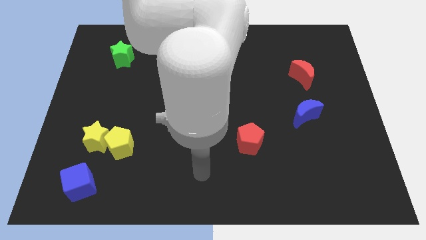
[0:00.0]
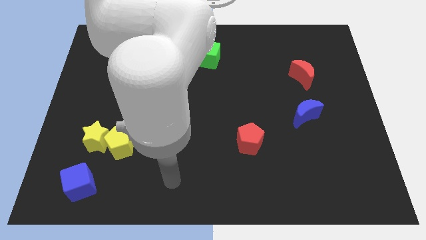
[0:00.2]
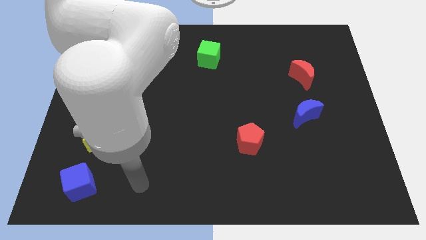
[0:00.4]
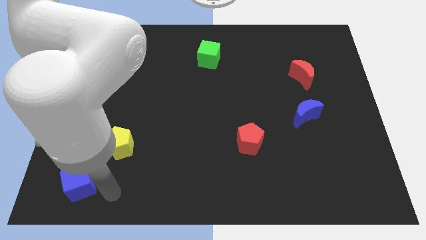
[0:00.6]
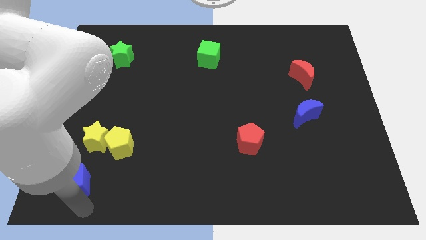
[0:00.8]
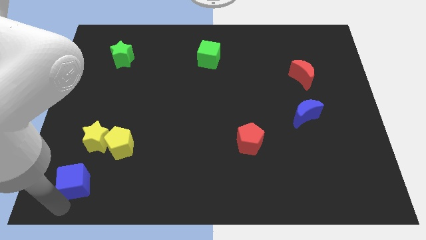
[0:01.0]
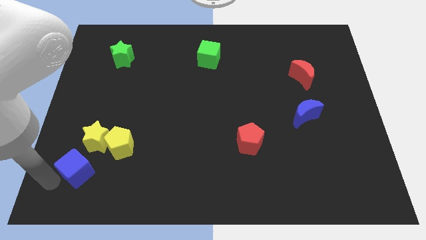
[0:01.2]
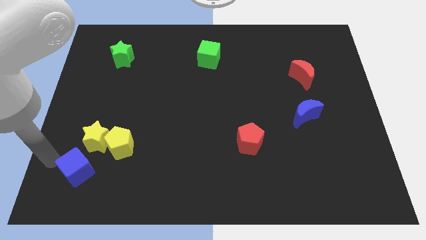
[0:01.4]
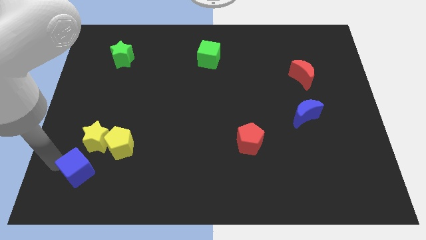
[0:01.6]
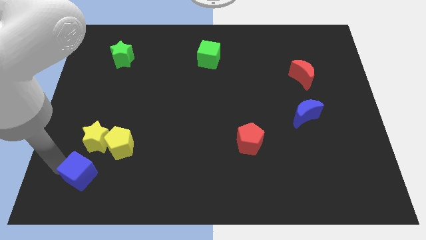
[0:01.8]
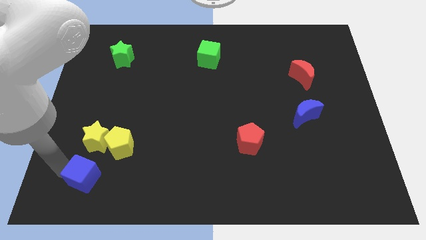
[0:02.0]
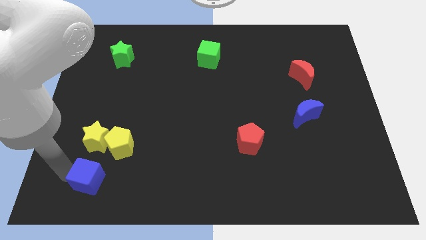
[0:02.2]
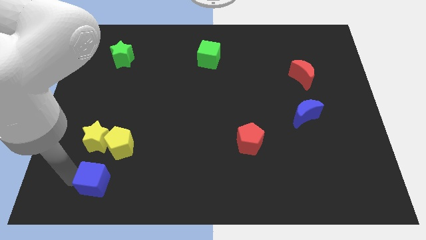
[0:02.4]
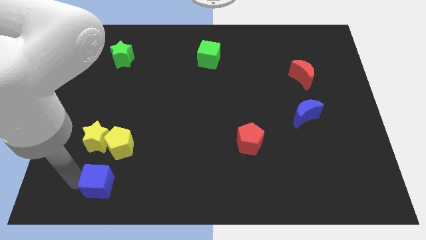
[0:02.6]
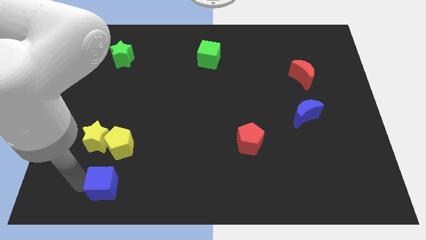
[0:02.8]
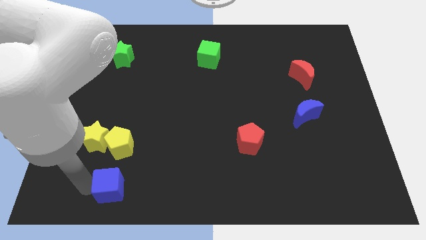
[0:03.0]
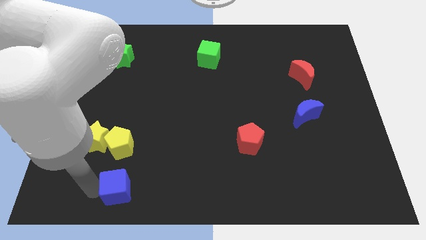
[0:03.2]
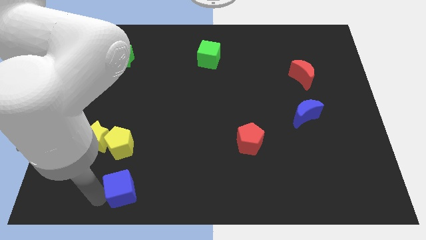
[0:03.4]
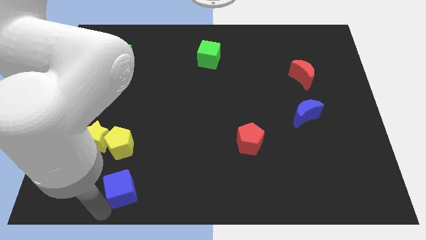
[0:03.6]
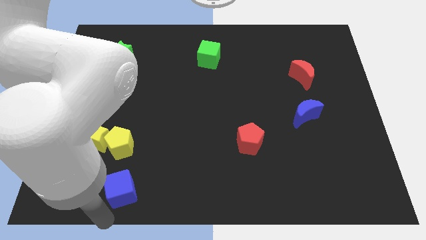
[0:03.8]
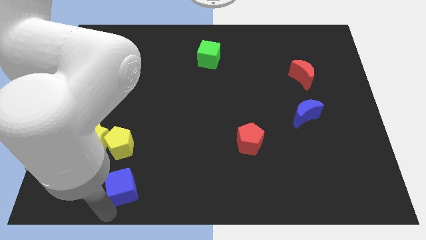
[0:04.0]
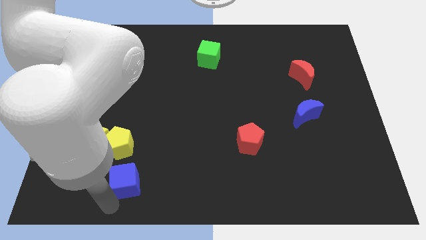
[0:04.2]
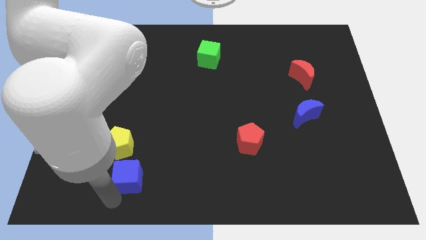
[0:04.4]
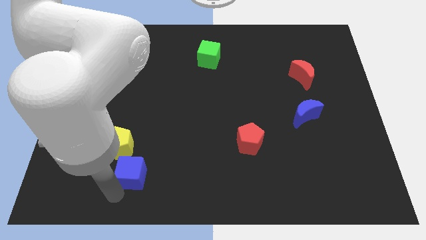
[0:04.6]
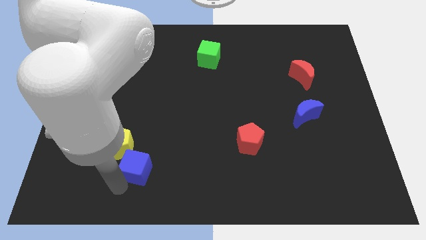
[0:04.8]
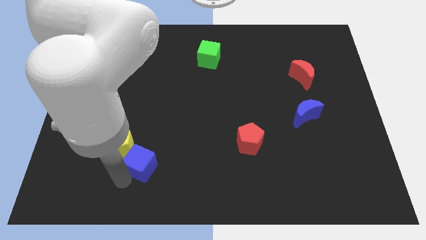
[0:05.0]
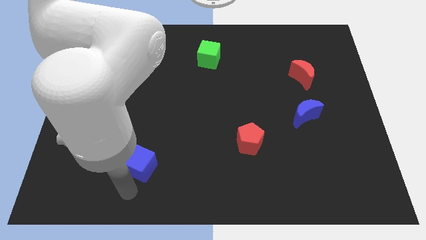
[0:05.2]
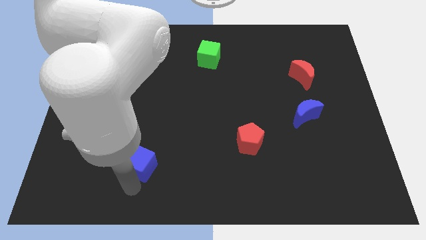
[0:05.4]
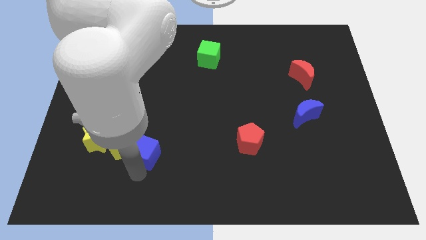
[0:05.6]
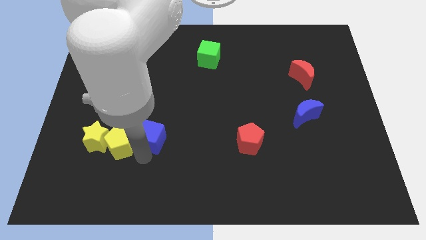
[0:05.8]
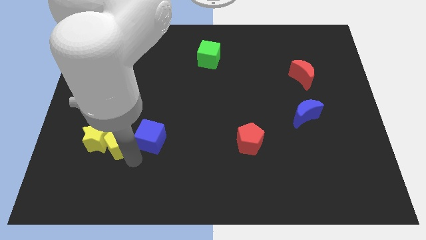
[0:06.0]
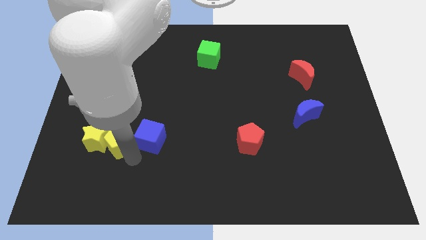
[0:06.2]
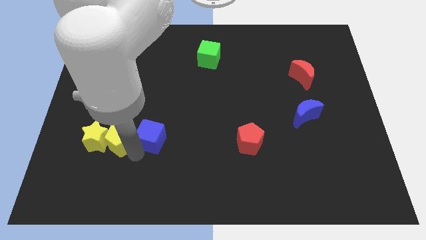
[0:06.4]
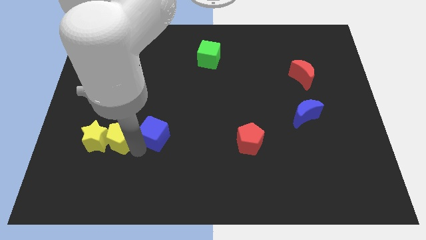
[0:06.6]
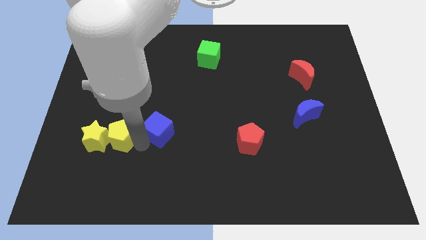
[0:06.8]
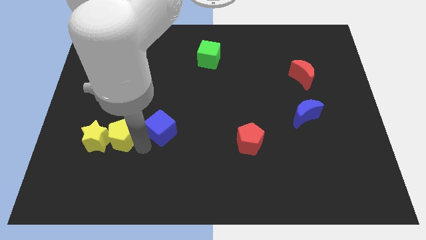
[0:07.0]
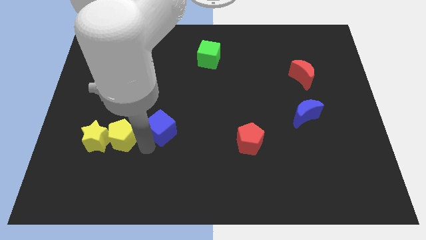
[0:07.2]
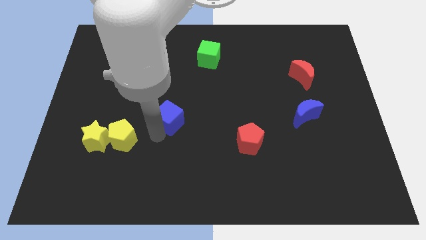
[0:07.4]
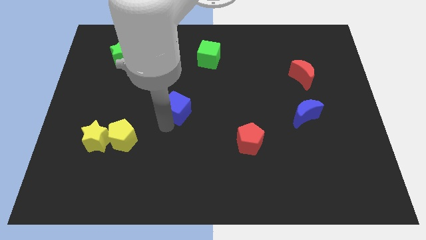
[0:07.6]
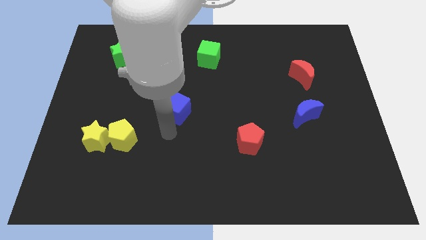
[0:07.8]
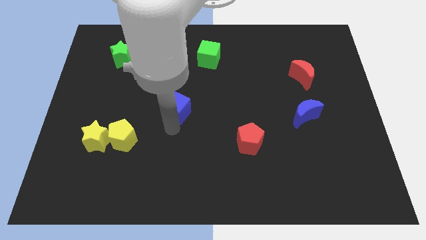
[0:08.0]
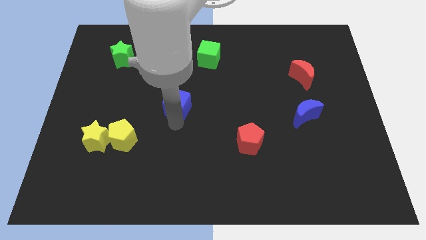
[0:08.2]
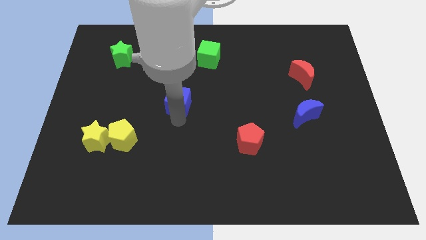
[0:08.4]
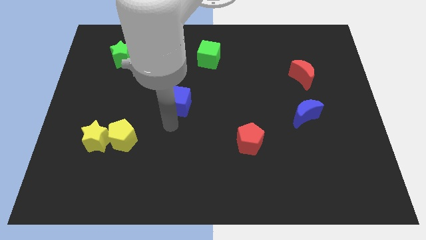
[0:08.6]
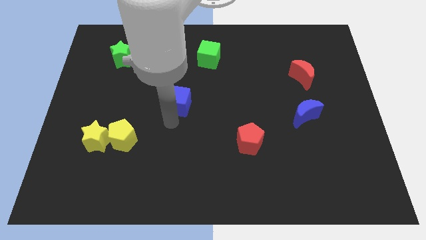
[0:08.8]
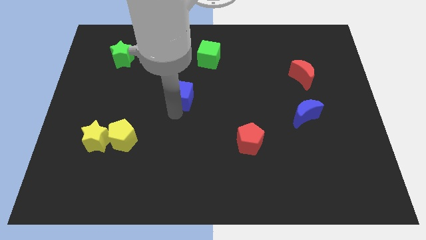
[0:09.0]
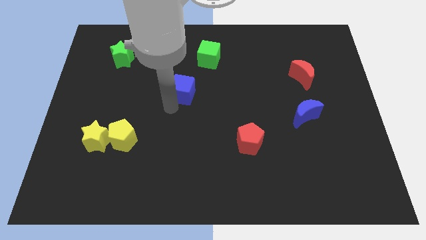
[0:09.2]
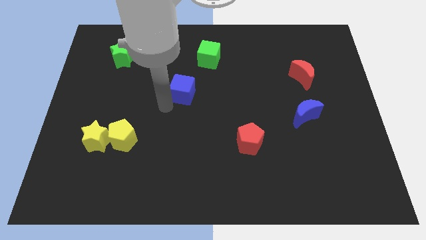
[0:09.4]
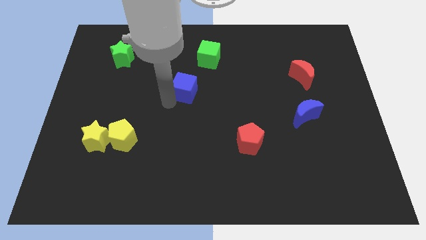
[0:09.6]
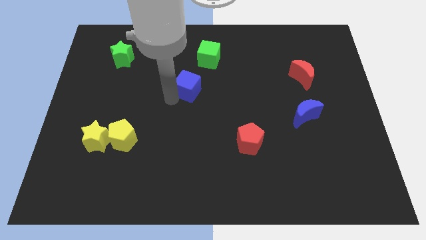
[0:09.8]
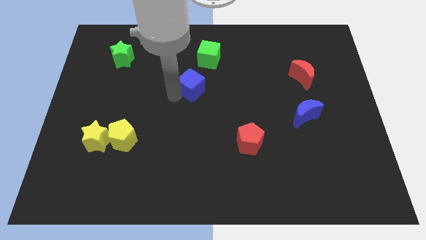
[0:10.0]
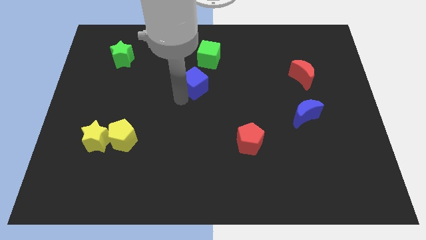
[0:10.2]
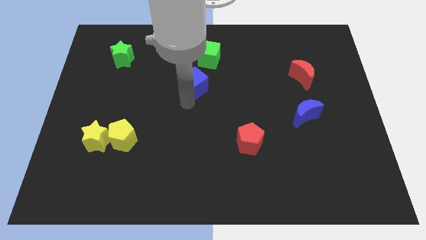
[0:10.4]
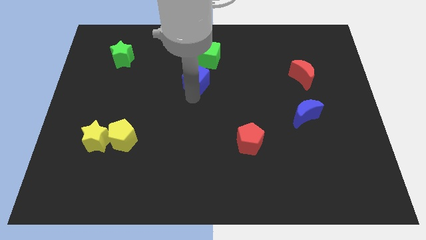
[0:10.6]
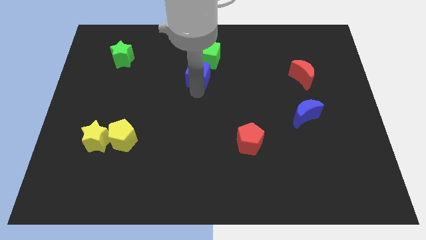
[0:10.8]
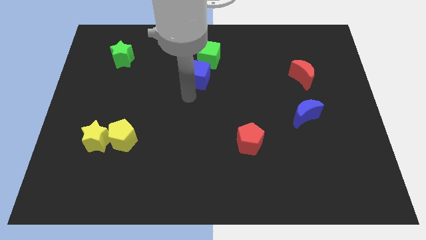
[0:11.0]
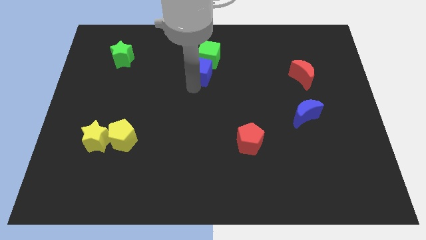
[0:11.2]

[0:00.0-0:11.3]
move the blue cube next to the green cube

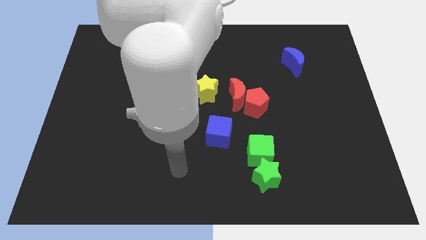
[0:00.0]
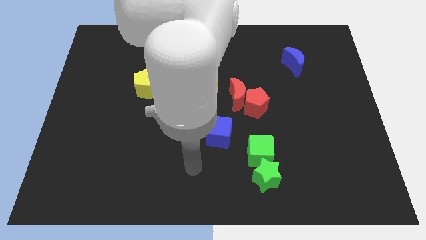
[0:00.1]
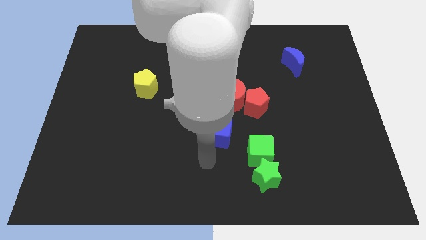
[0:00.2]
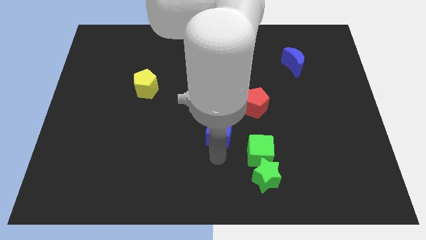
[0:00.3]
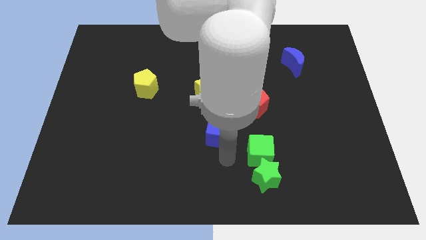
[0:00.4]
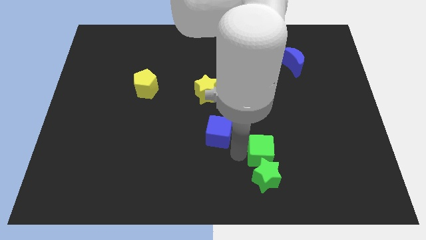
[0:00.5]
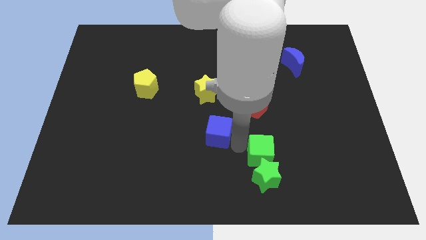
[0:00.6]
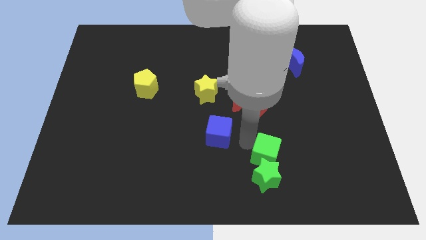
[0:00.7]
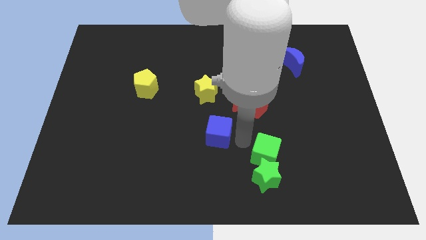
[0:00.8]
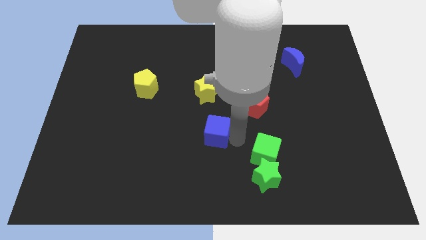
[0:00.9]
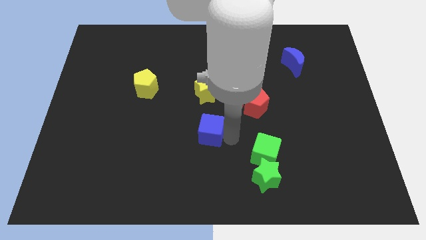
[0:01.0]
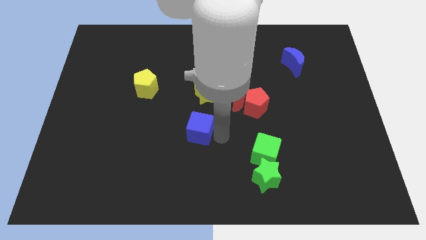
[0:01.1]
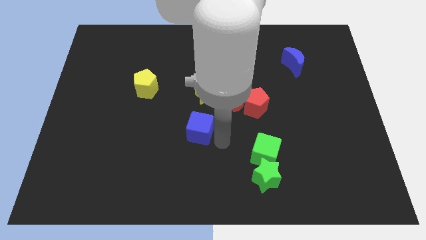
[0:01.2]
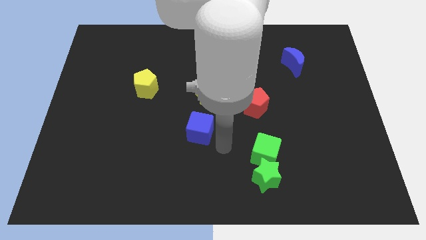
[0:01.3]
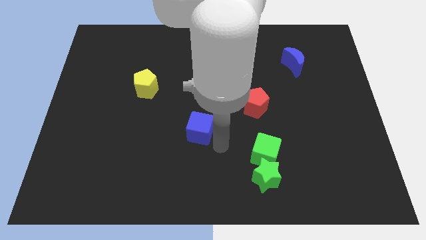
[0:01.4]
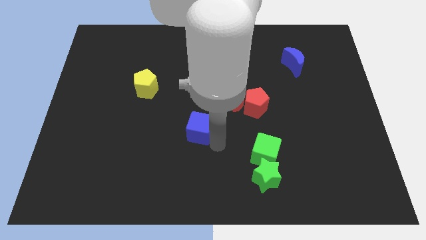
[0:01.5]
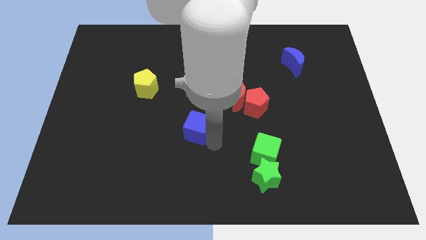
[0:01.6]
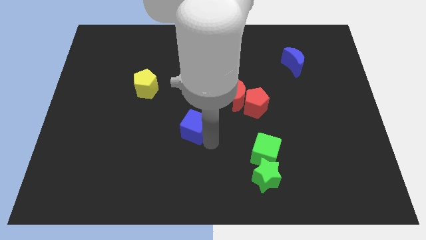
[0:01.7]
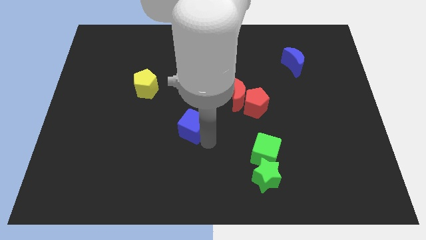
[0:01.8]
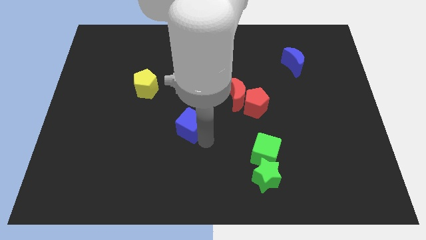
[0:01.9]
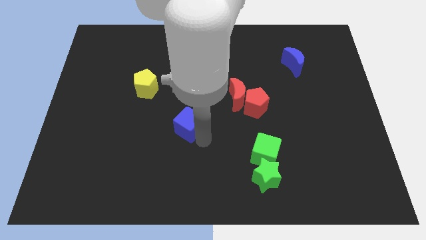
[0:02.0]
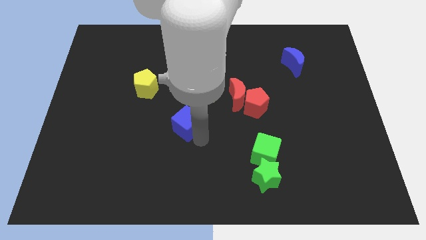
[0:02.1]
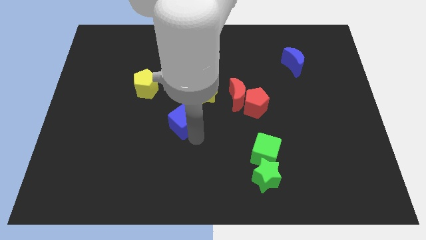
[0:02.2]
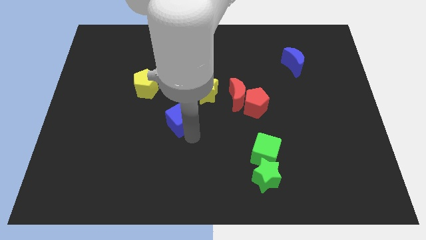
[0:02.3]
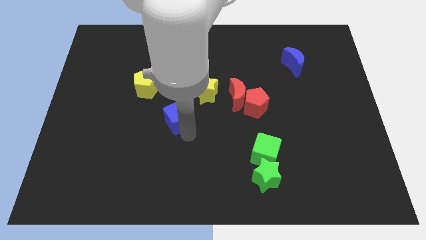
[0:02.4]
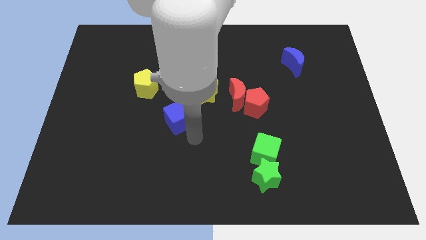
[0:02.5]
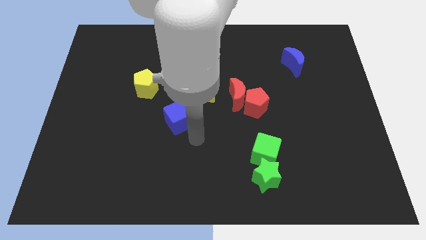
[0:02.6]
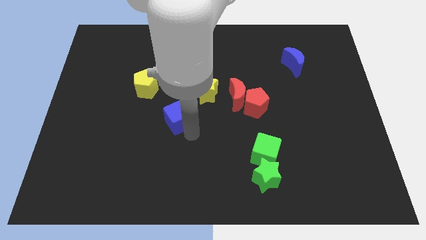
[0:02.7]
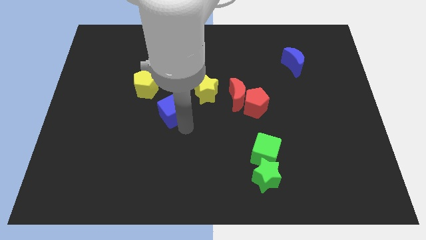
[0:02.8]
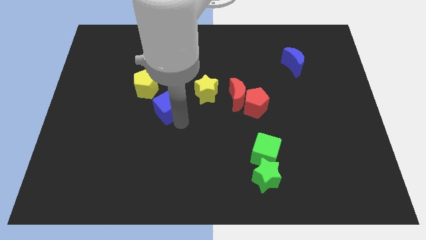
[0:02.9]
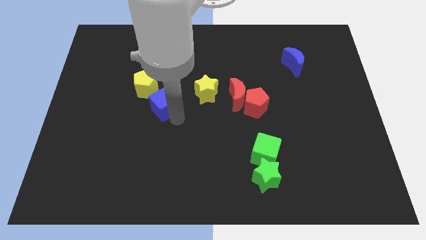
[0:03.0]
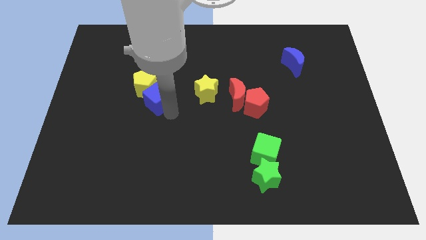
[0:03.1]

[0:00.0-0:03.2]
put the blue cube close to the yellow pentagon
